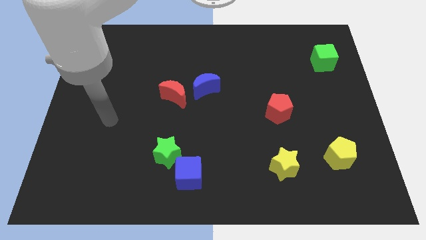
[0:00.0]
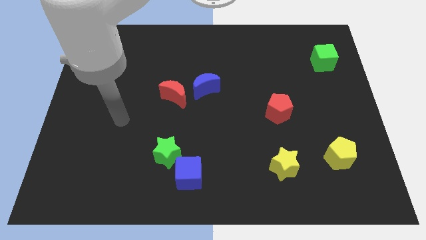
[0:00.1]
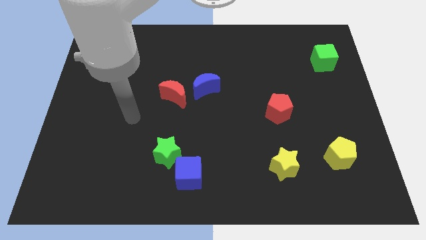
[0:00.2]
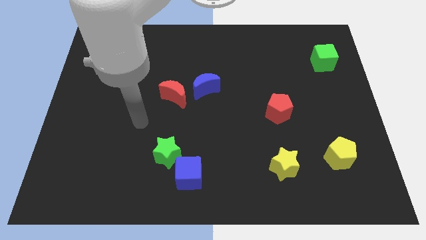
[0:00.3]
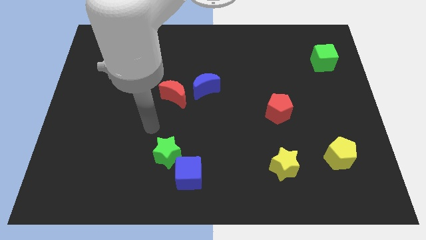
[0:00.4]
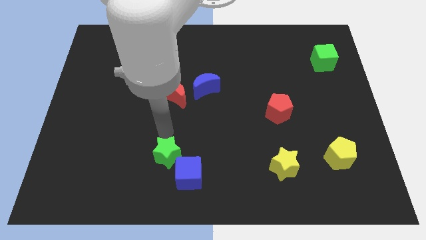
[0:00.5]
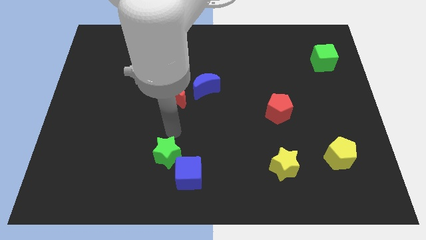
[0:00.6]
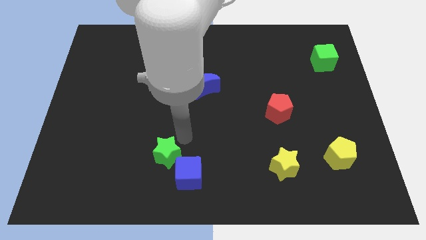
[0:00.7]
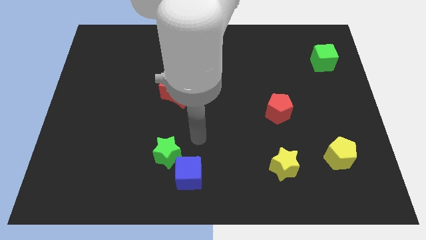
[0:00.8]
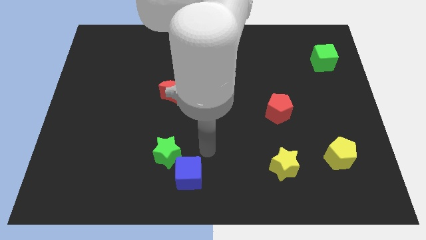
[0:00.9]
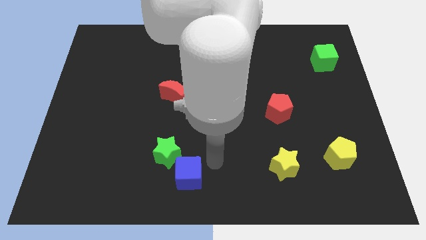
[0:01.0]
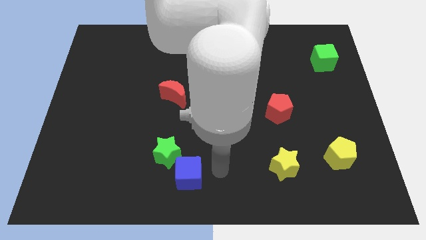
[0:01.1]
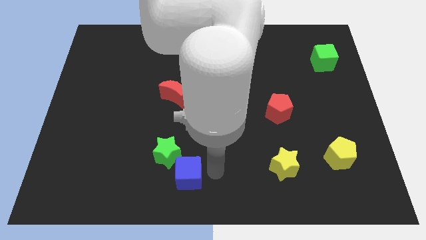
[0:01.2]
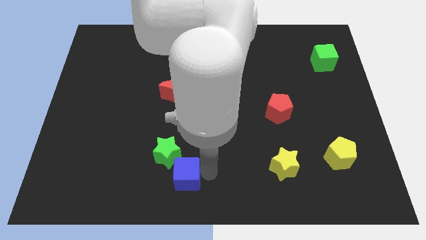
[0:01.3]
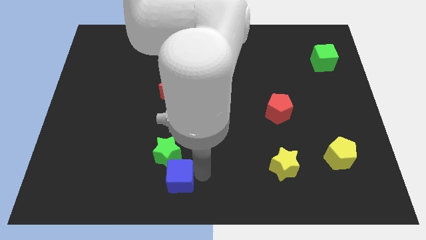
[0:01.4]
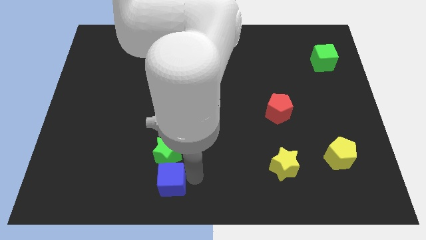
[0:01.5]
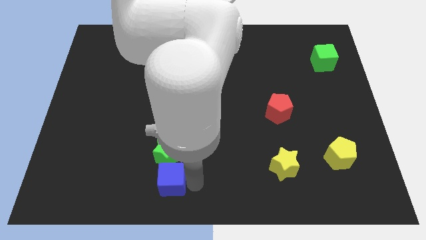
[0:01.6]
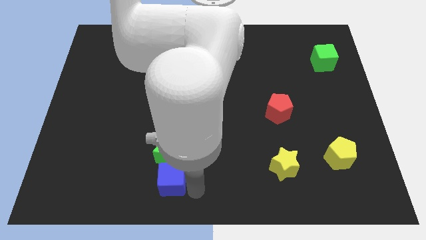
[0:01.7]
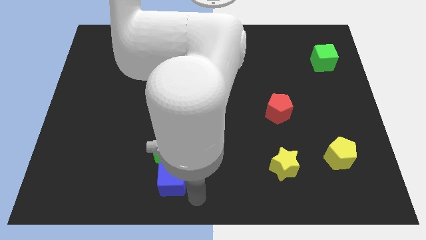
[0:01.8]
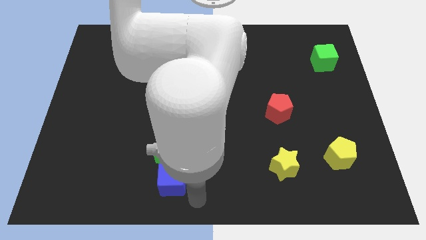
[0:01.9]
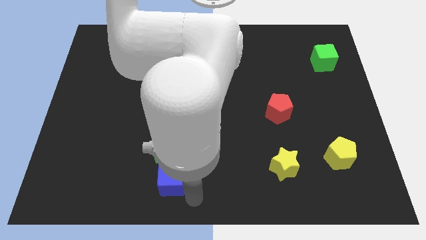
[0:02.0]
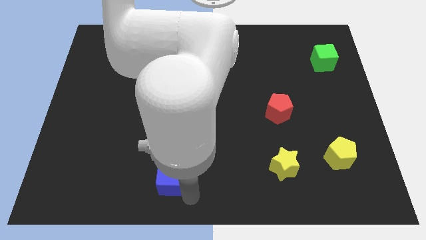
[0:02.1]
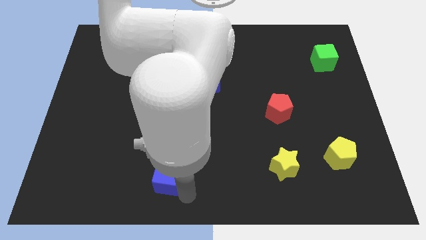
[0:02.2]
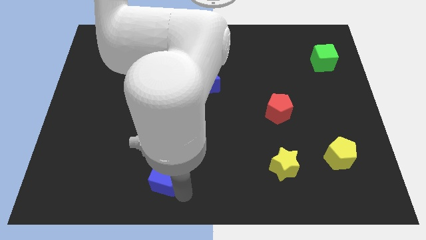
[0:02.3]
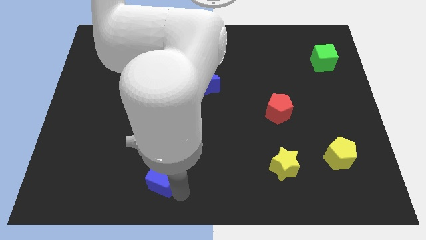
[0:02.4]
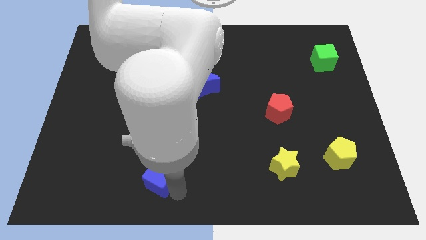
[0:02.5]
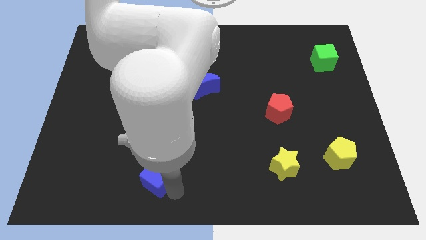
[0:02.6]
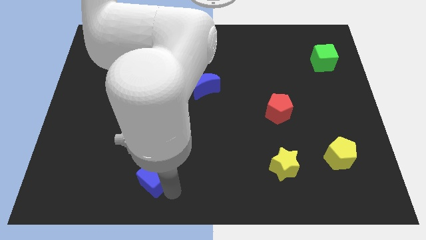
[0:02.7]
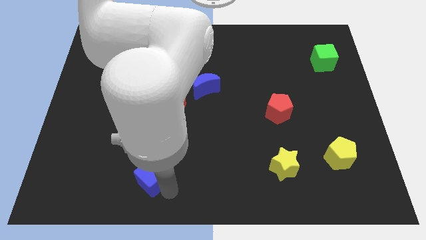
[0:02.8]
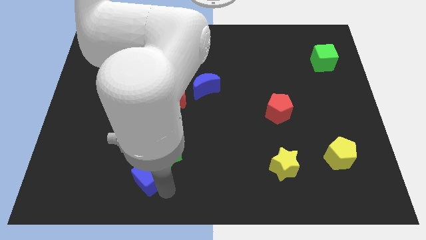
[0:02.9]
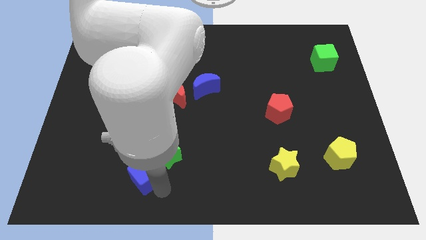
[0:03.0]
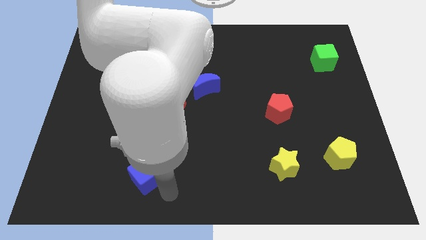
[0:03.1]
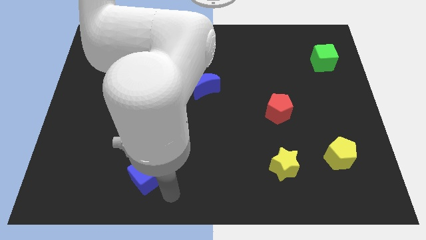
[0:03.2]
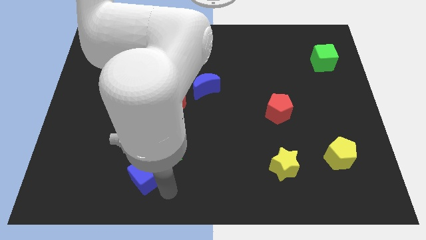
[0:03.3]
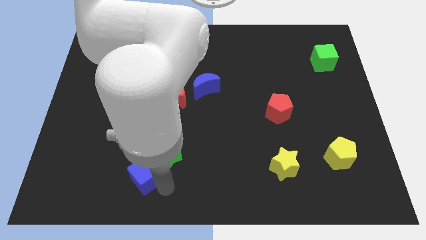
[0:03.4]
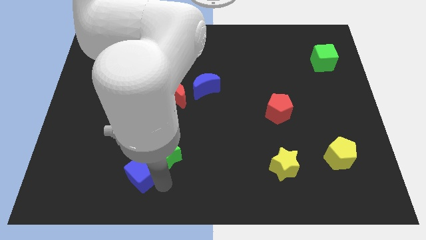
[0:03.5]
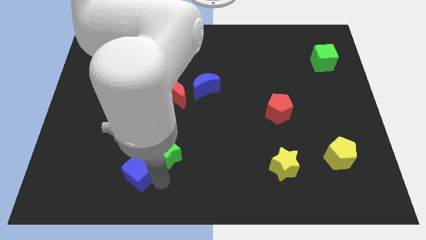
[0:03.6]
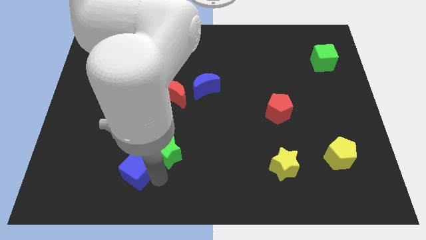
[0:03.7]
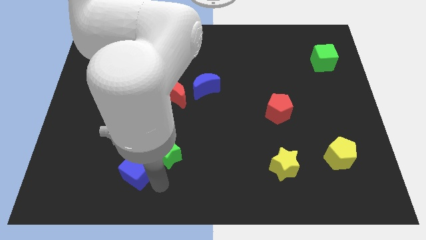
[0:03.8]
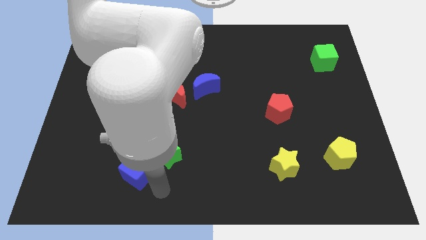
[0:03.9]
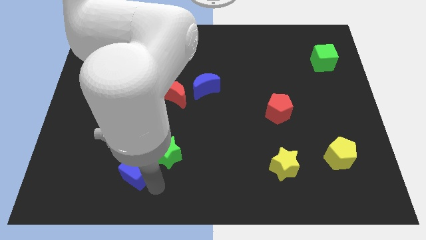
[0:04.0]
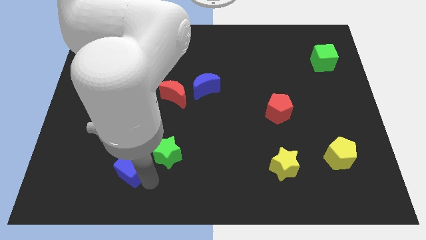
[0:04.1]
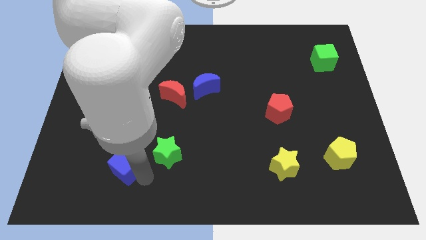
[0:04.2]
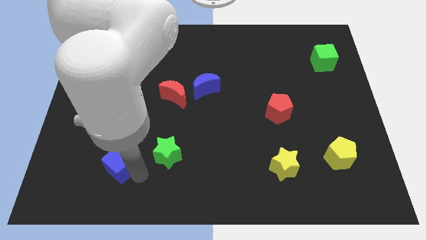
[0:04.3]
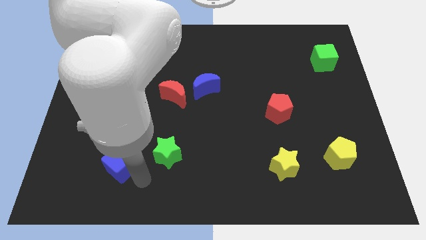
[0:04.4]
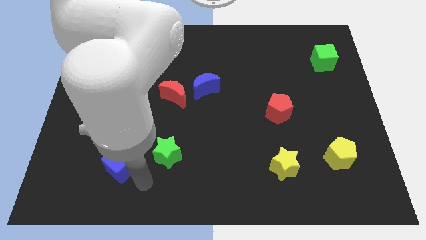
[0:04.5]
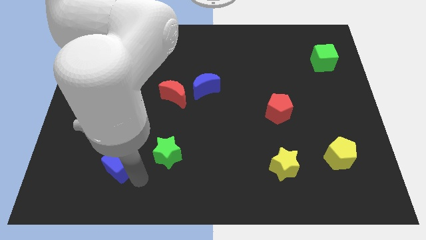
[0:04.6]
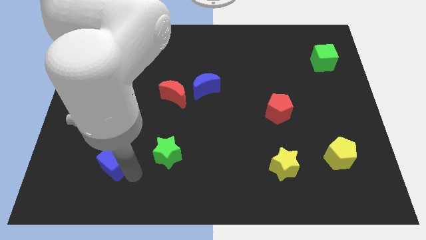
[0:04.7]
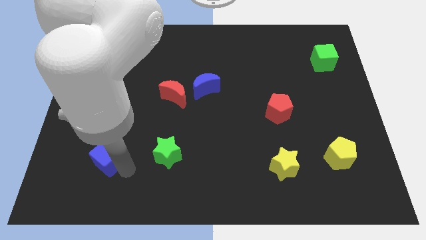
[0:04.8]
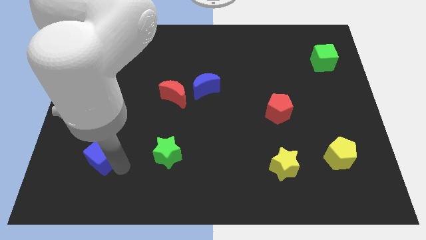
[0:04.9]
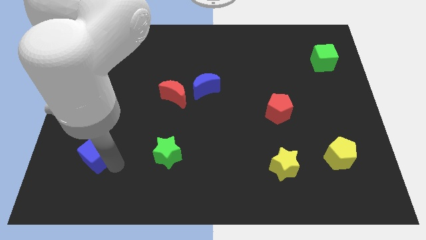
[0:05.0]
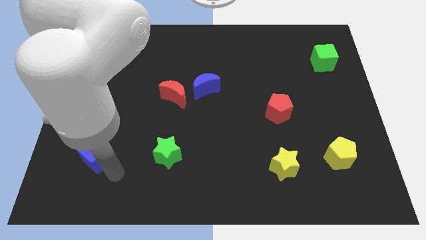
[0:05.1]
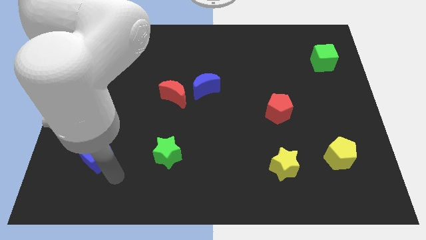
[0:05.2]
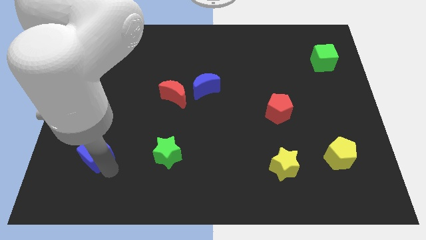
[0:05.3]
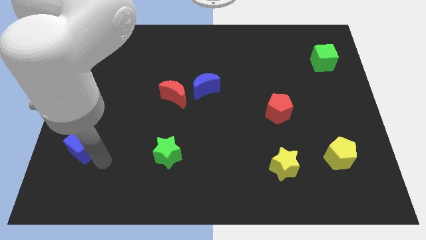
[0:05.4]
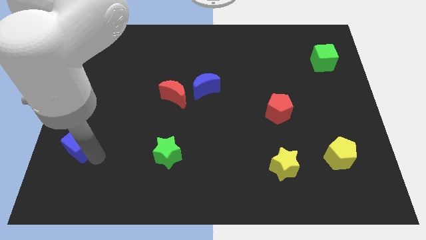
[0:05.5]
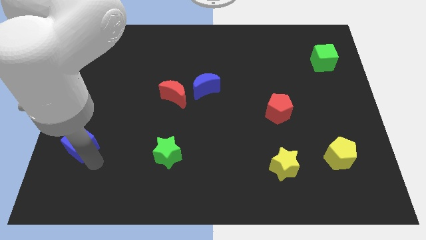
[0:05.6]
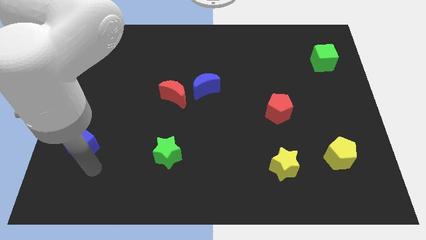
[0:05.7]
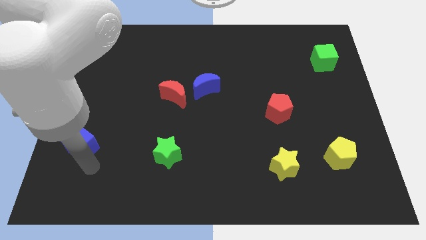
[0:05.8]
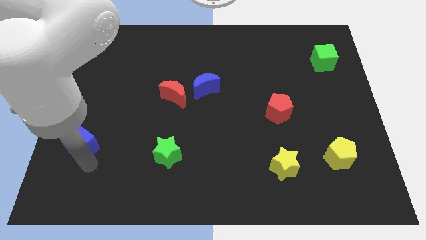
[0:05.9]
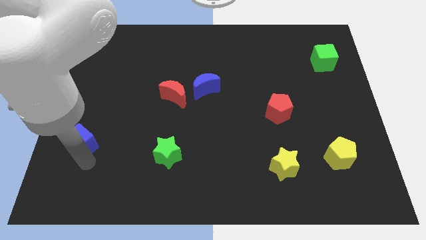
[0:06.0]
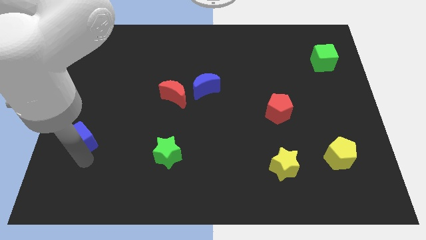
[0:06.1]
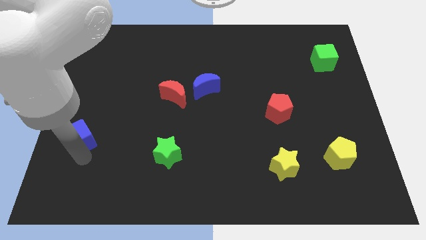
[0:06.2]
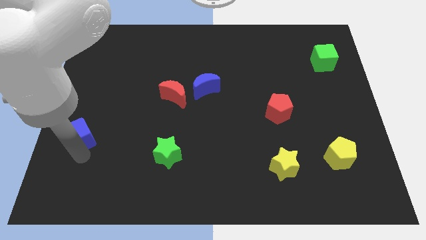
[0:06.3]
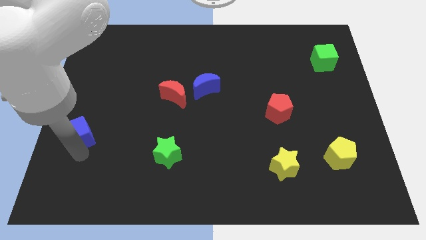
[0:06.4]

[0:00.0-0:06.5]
push the blue cube to the left side

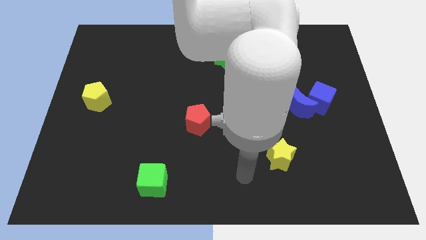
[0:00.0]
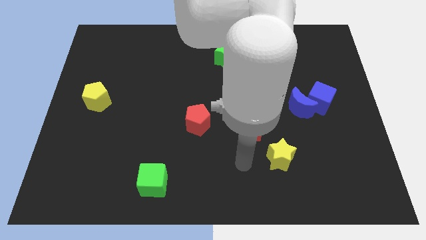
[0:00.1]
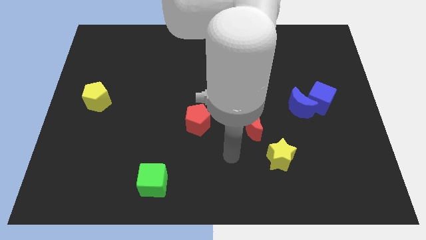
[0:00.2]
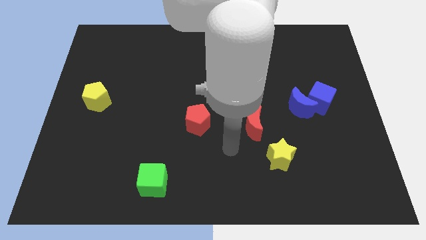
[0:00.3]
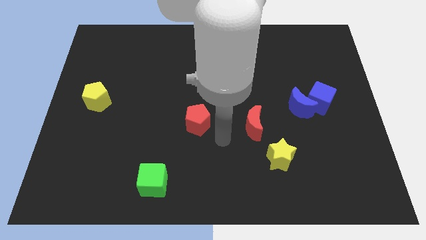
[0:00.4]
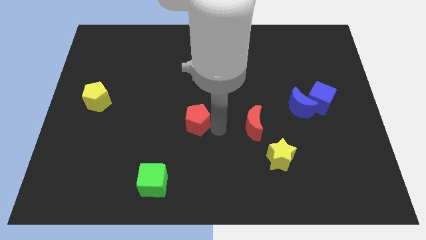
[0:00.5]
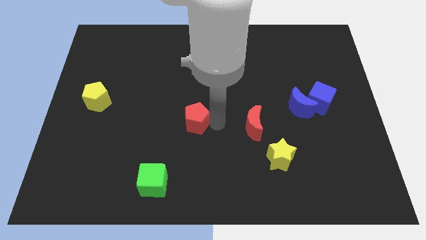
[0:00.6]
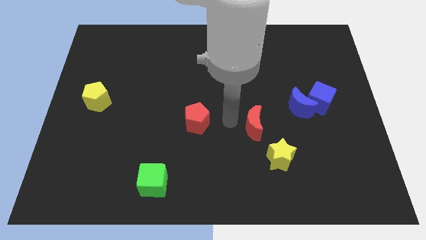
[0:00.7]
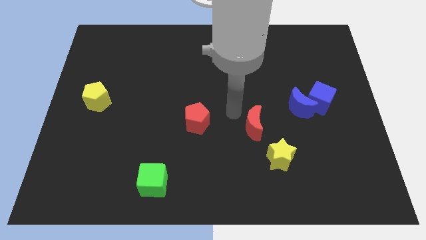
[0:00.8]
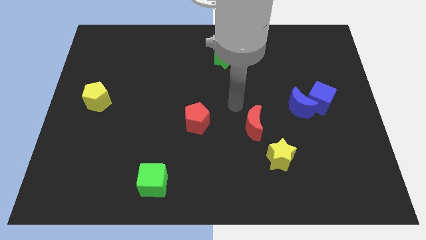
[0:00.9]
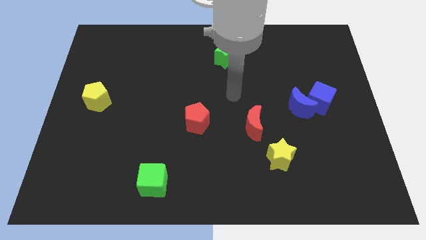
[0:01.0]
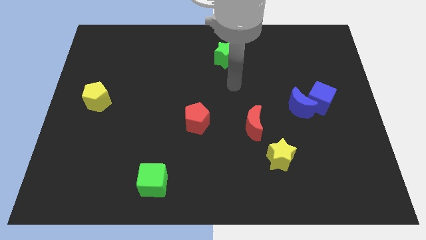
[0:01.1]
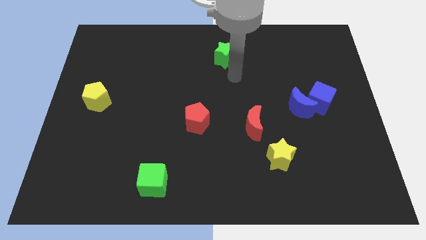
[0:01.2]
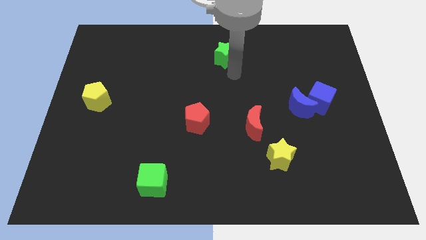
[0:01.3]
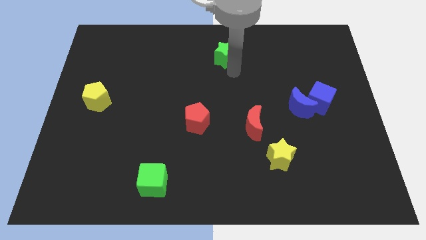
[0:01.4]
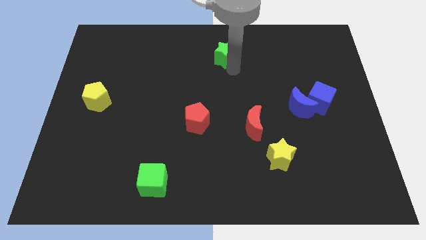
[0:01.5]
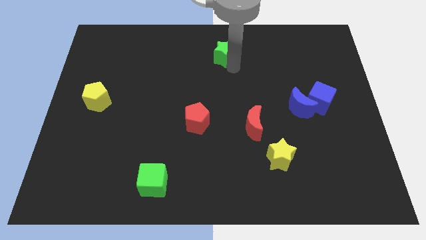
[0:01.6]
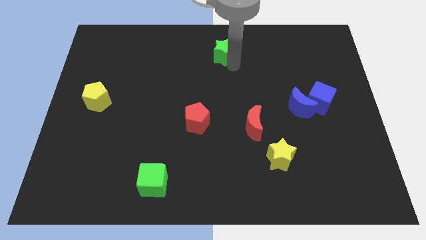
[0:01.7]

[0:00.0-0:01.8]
push the green star to the towards your base
